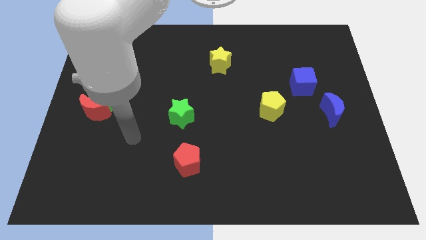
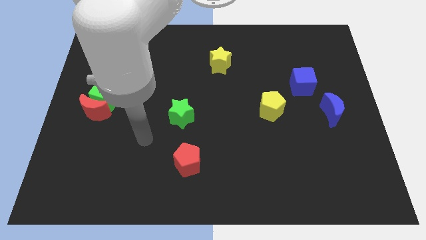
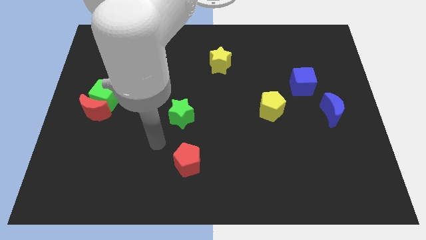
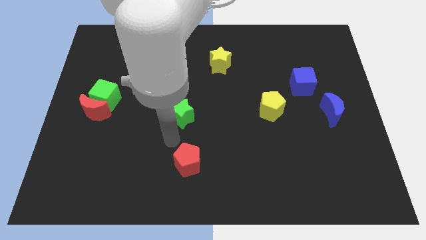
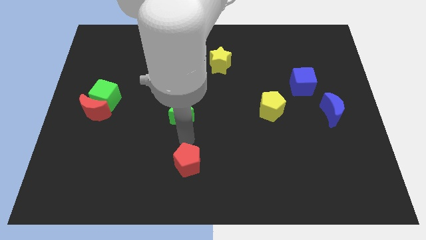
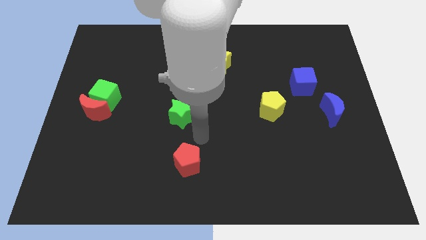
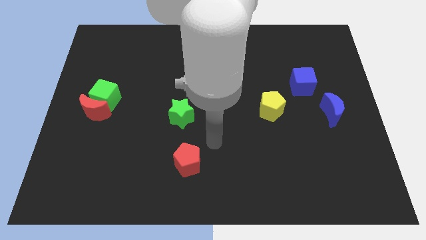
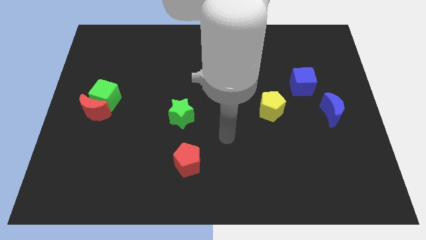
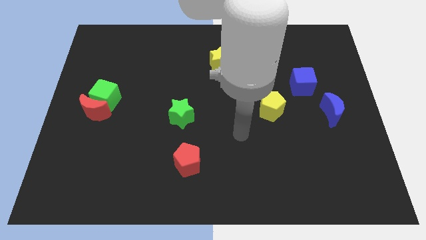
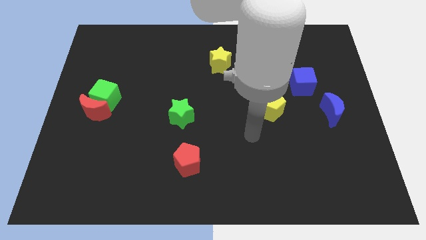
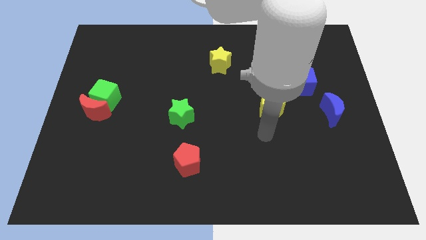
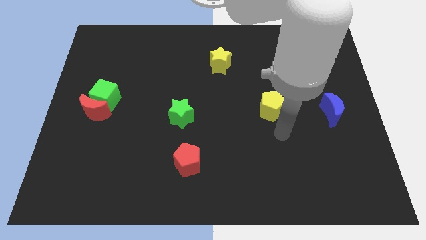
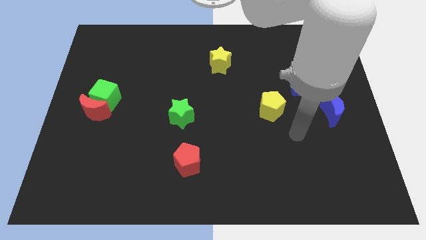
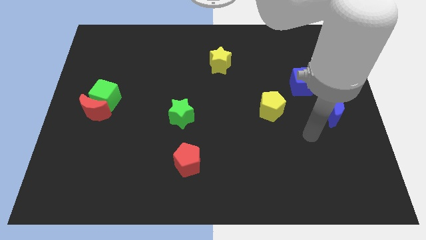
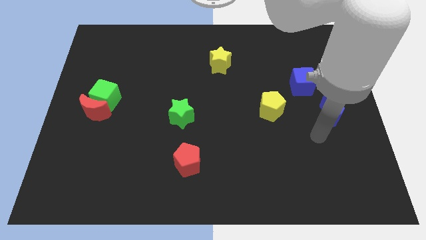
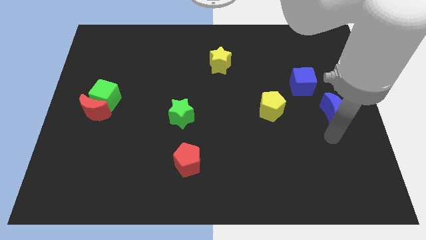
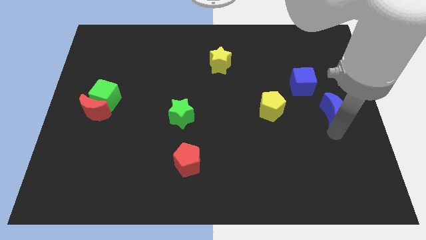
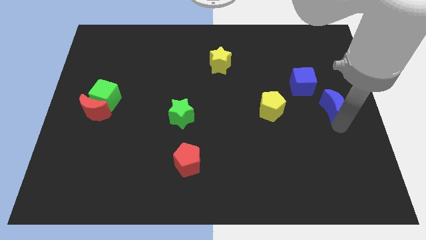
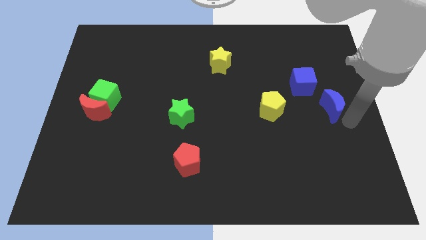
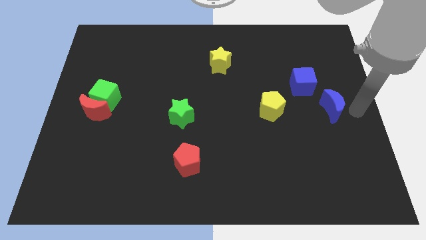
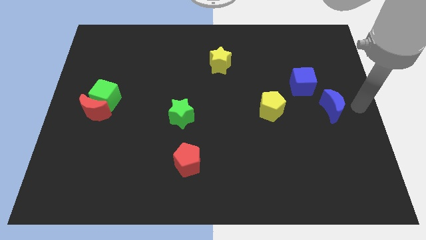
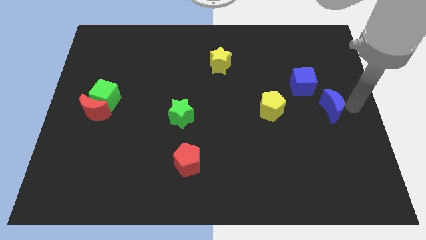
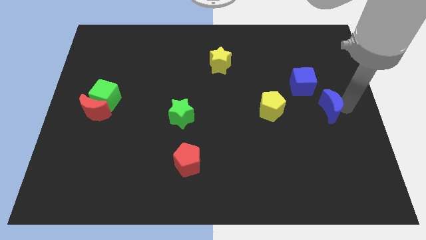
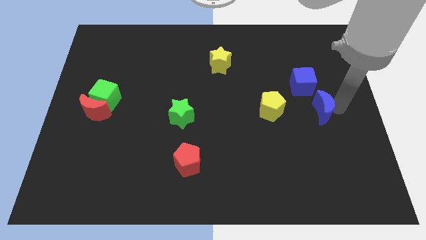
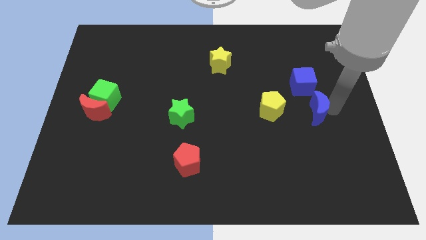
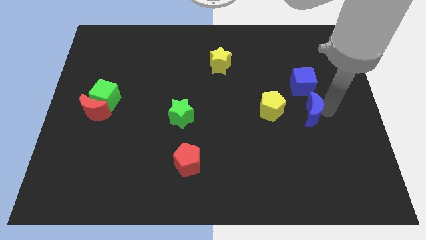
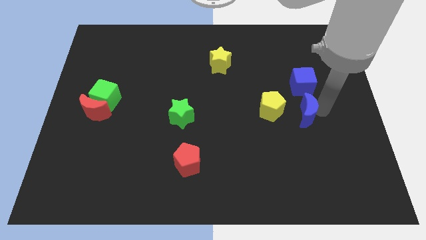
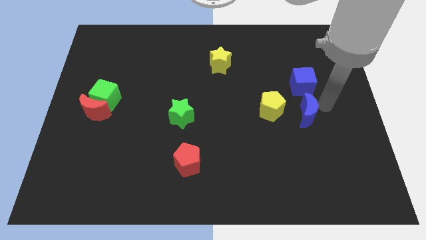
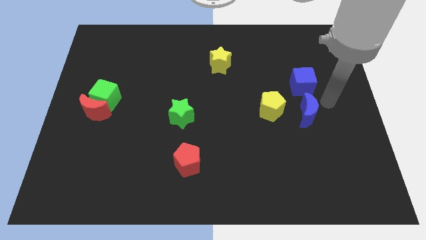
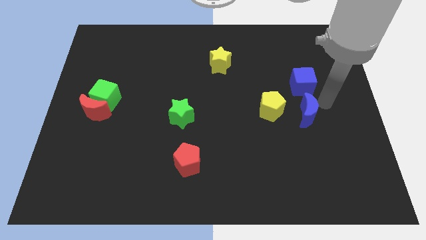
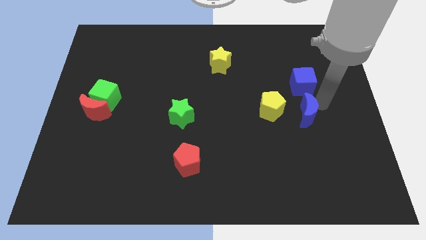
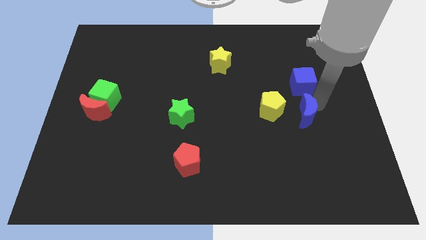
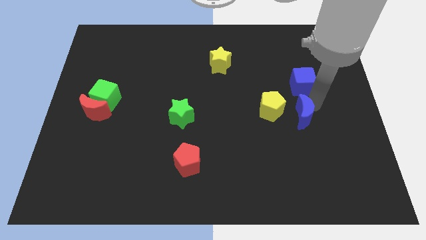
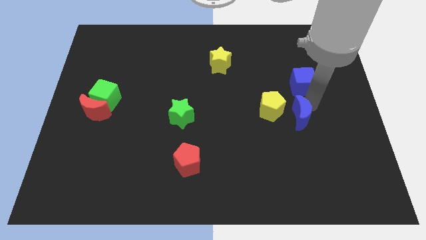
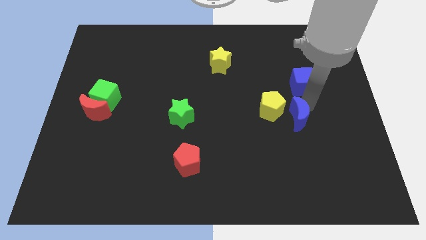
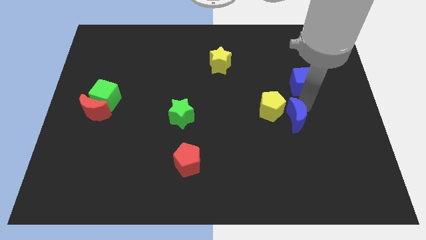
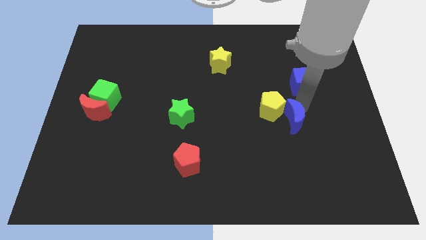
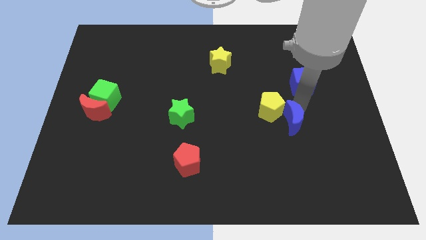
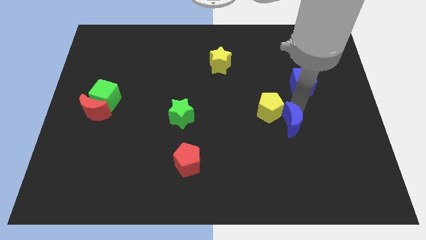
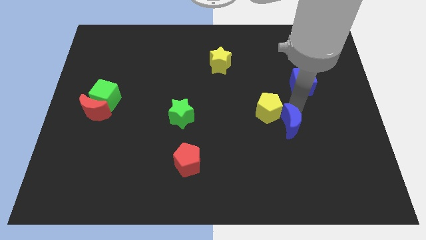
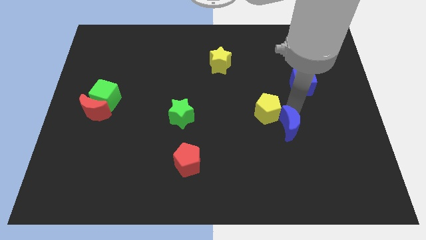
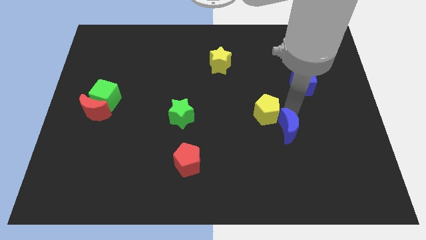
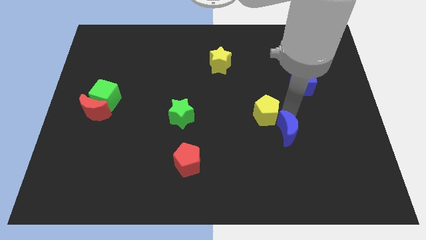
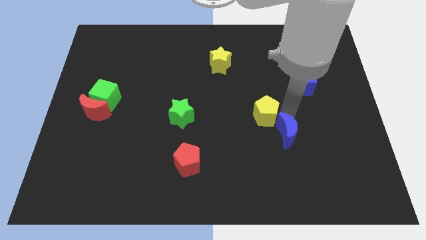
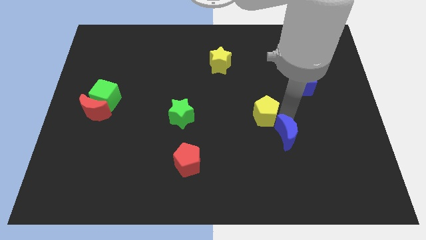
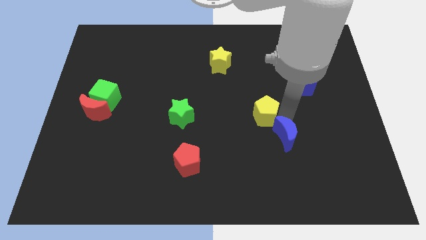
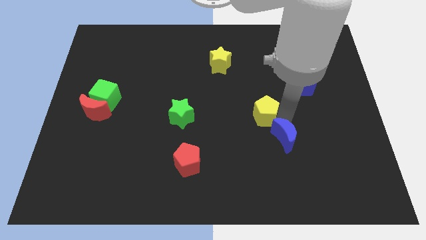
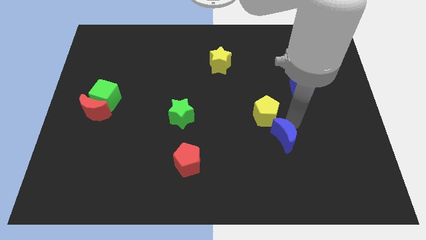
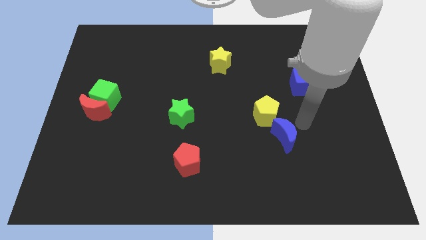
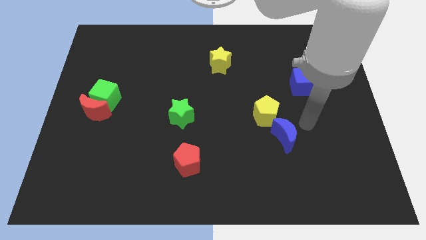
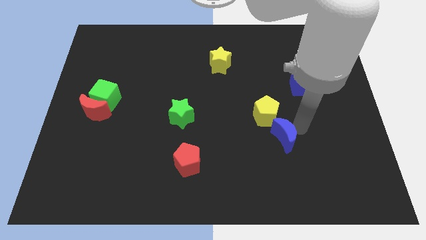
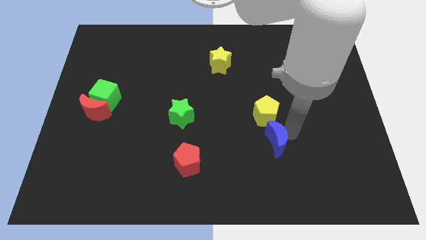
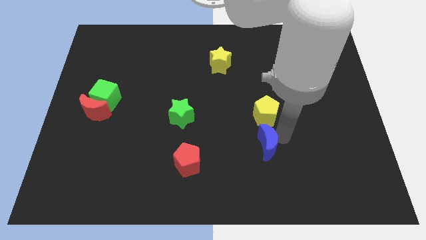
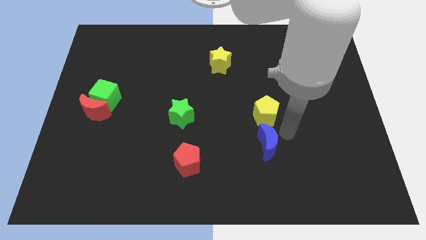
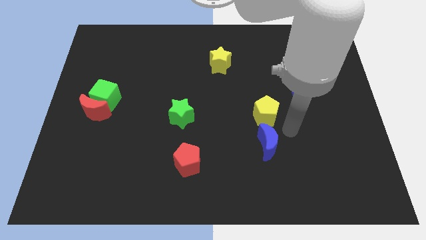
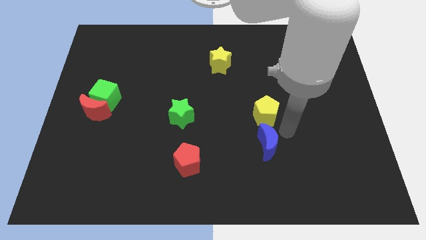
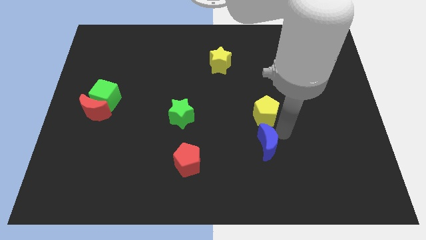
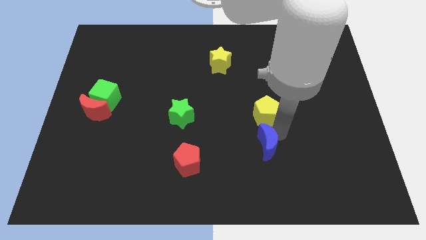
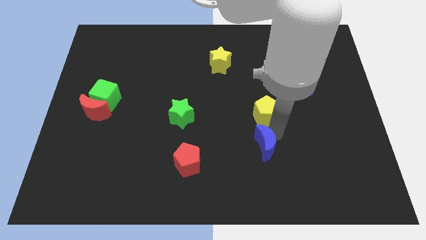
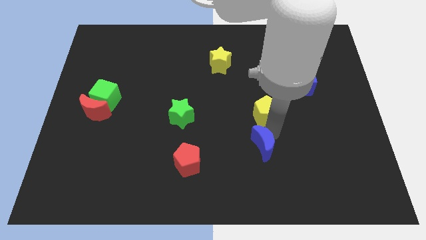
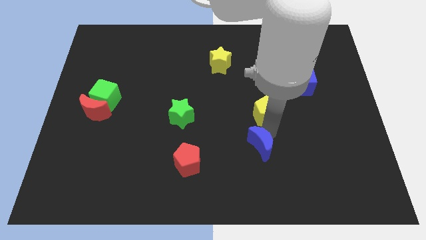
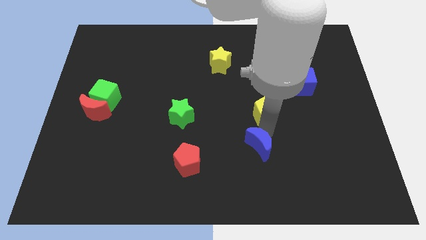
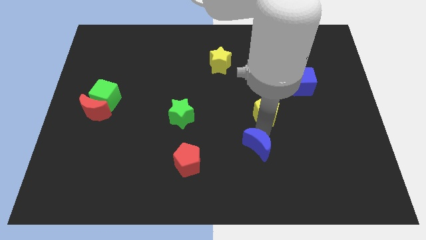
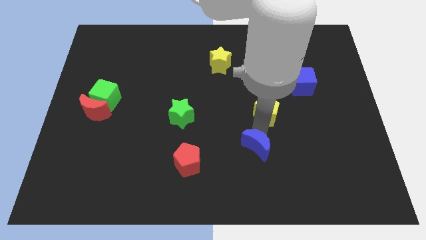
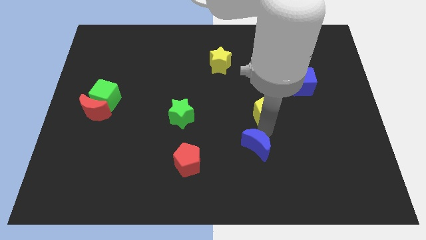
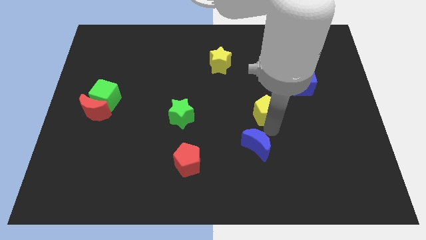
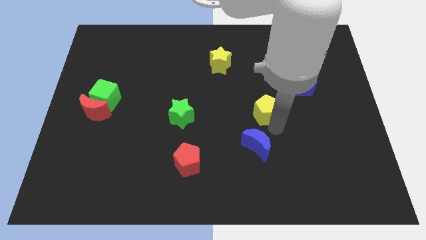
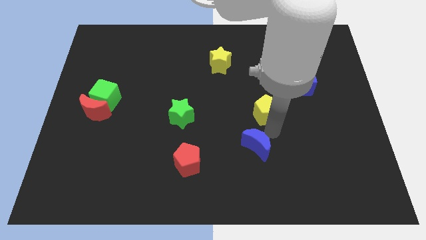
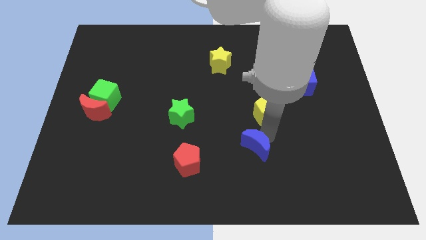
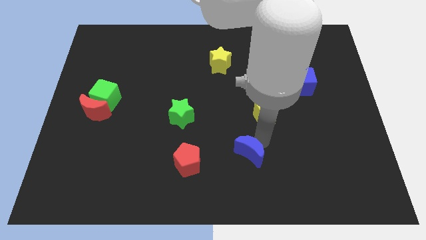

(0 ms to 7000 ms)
put the blue moon right of the red pentagon

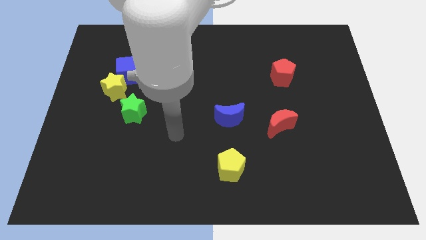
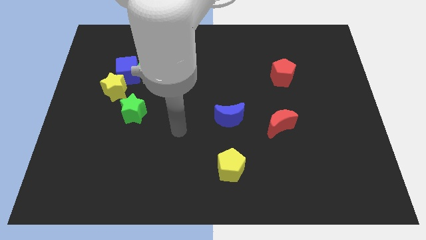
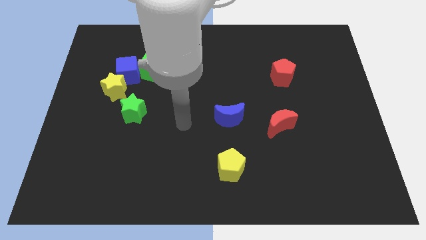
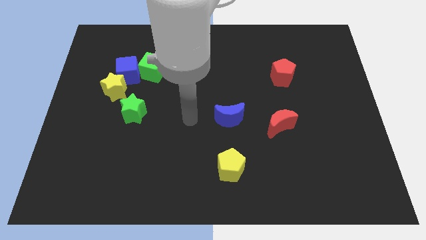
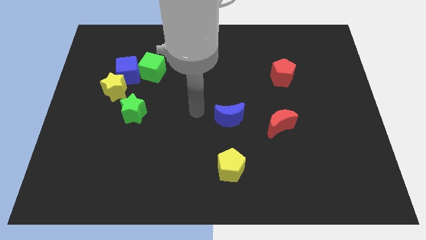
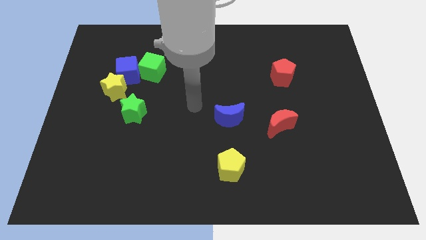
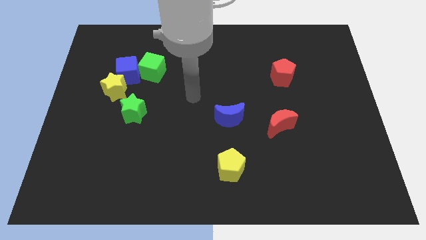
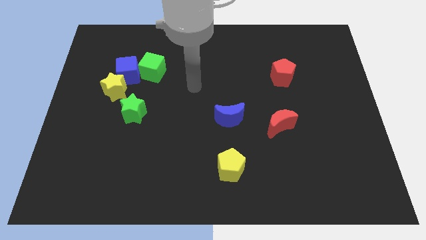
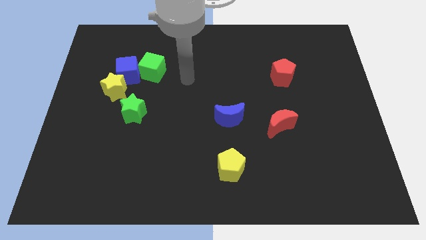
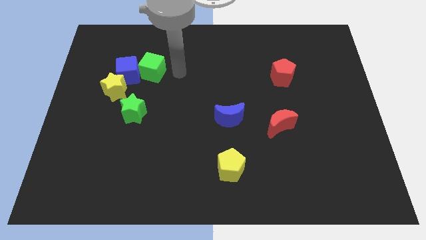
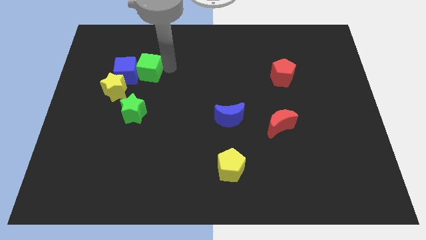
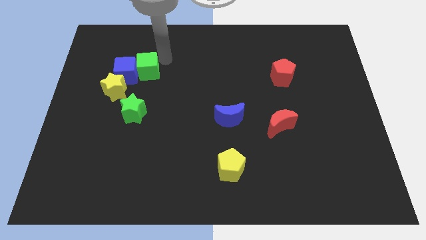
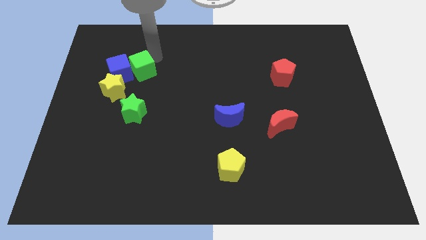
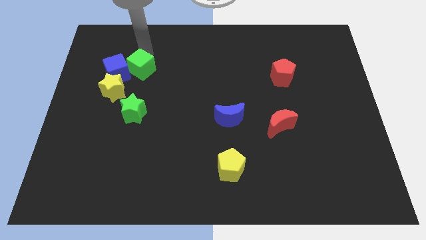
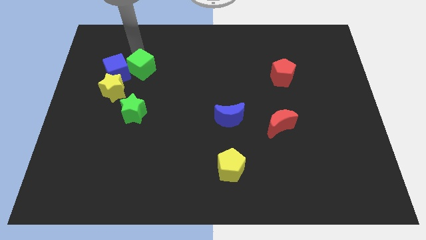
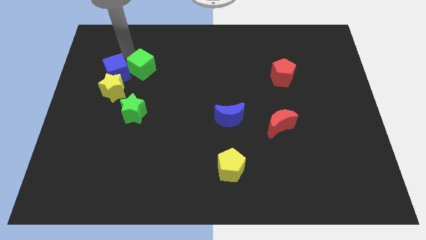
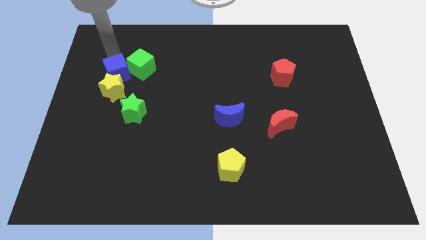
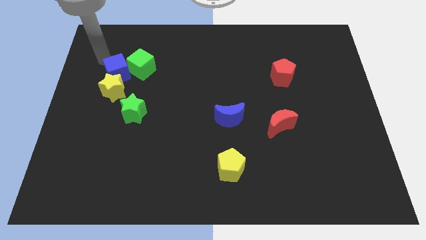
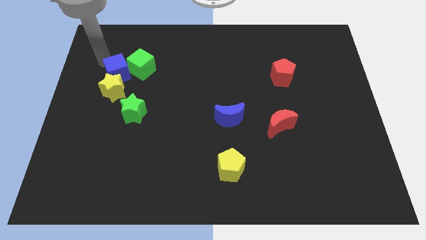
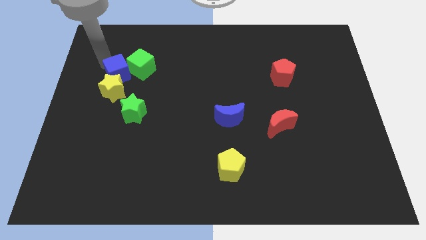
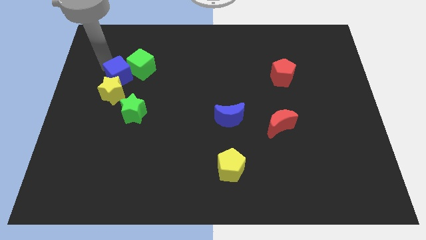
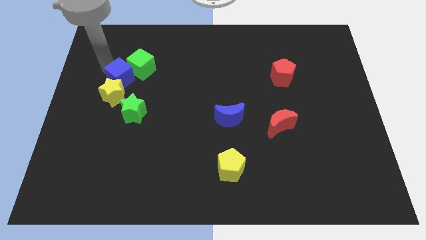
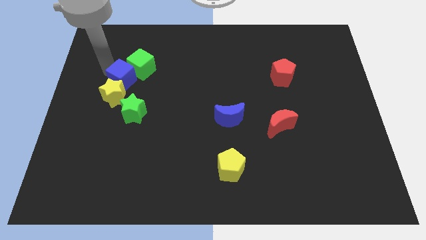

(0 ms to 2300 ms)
push the blue cube to the bottom side of the green cube
